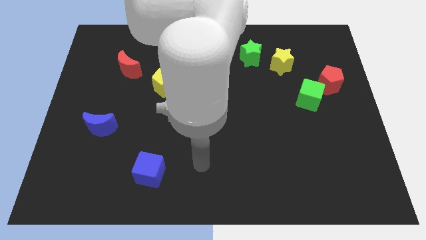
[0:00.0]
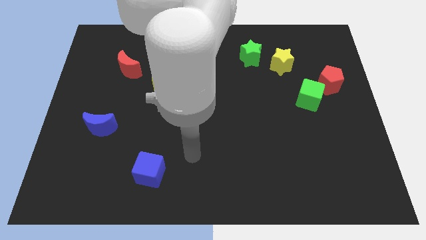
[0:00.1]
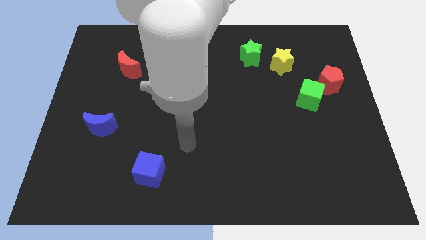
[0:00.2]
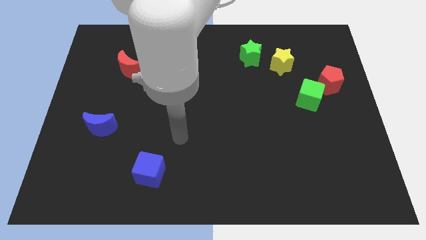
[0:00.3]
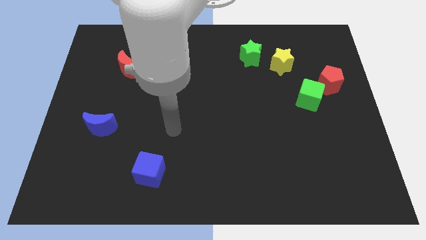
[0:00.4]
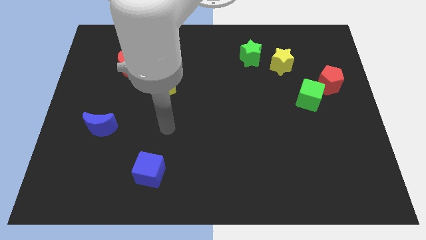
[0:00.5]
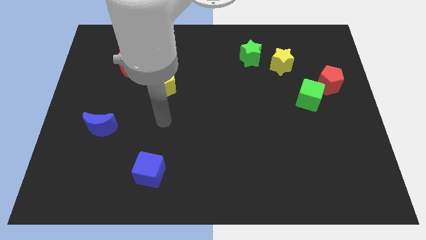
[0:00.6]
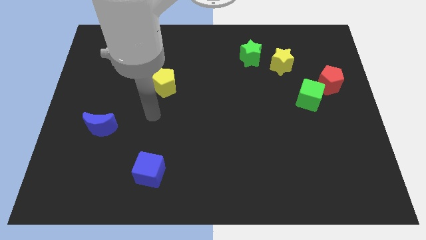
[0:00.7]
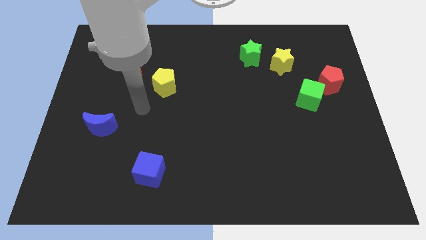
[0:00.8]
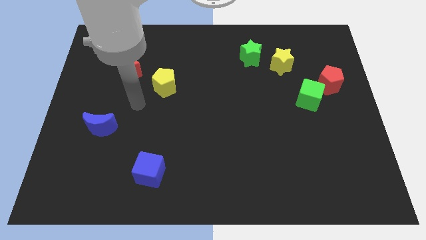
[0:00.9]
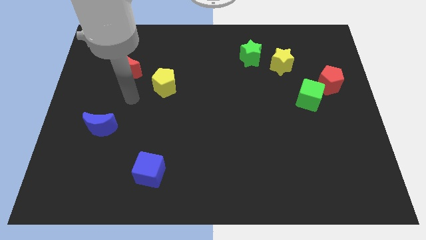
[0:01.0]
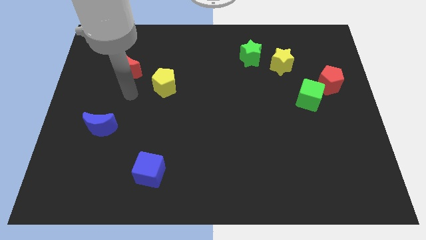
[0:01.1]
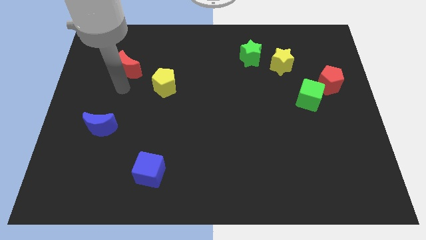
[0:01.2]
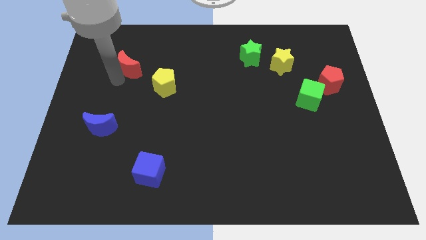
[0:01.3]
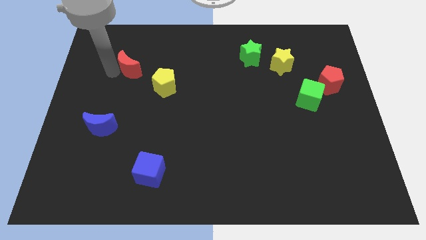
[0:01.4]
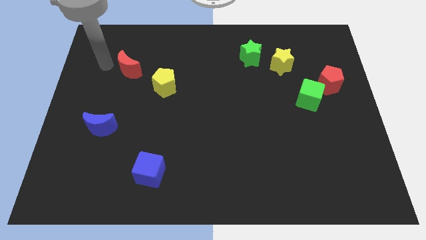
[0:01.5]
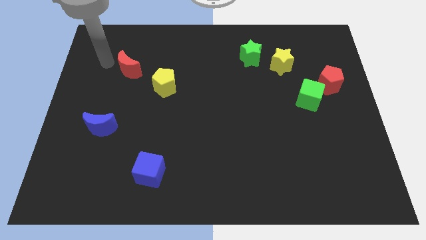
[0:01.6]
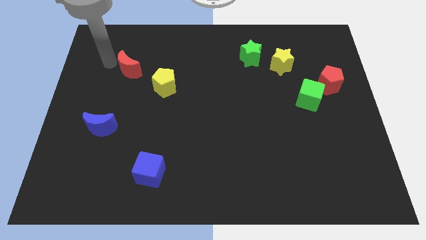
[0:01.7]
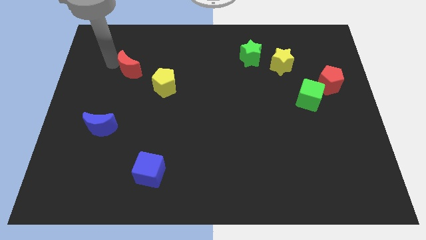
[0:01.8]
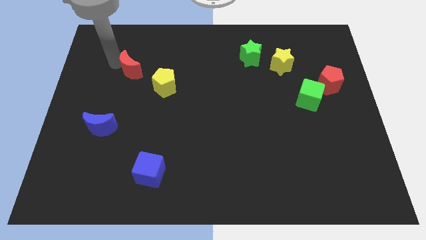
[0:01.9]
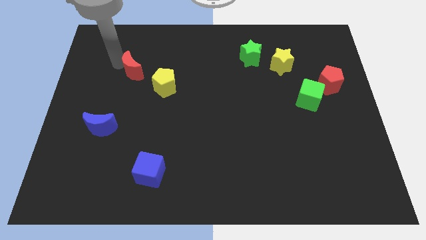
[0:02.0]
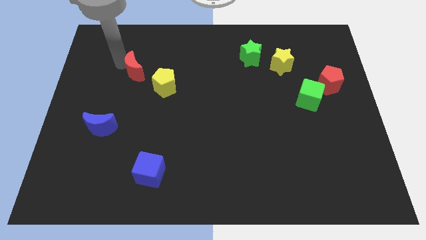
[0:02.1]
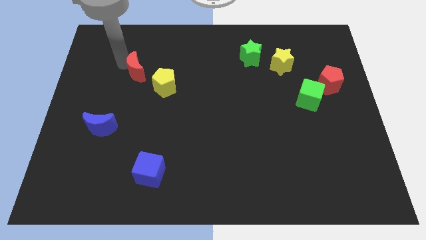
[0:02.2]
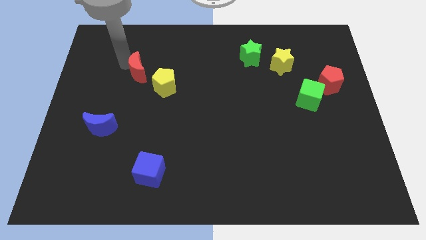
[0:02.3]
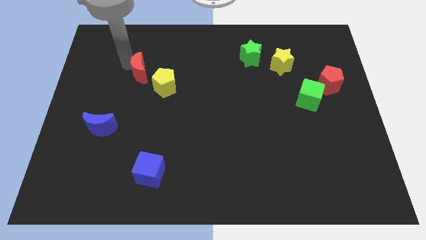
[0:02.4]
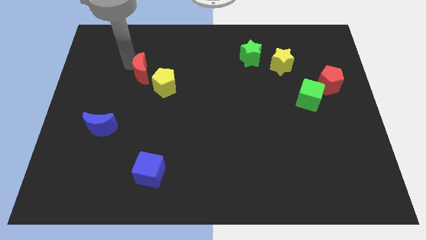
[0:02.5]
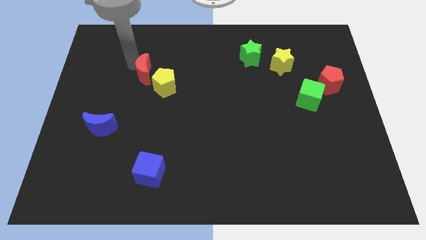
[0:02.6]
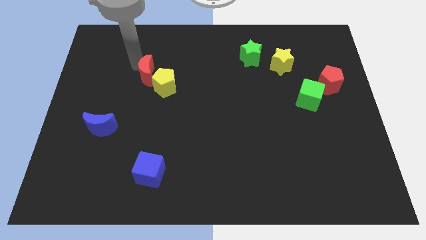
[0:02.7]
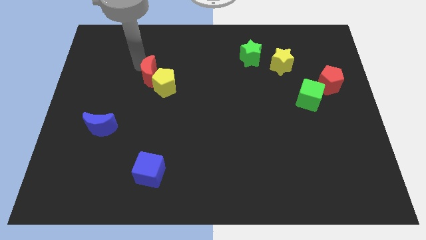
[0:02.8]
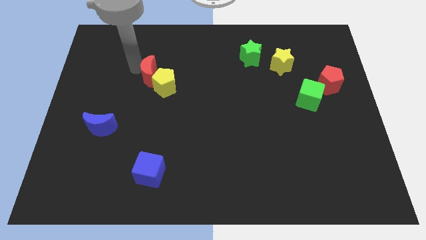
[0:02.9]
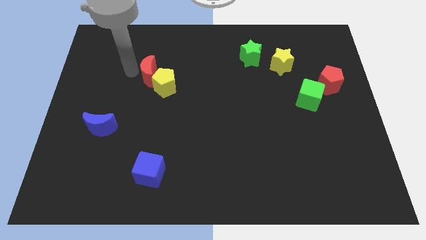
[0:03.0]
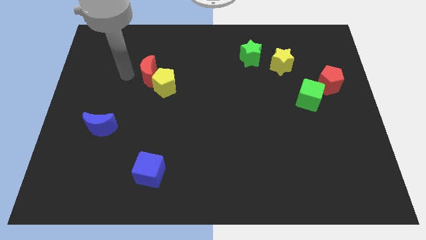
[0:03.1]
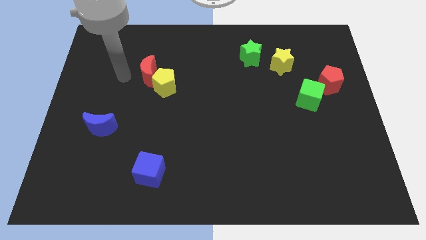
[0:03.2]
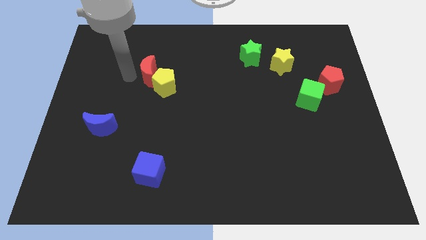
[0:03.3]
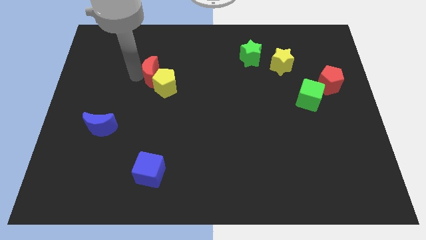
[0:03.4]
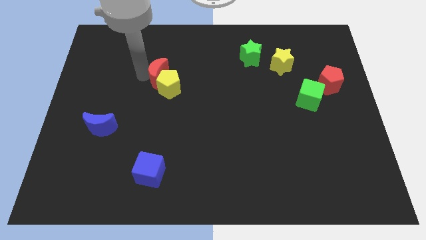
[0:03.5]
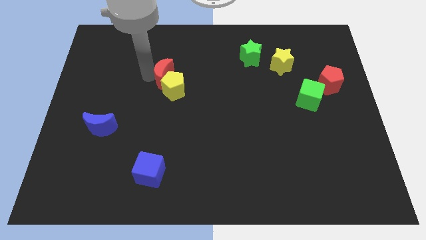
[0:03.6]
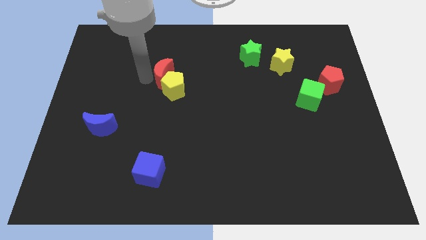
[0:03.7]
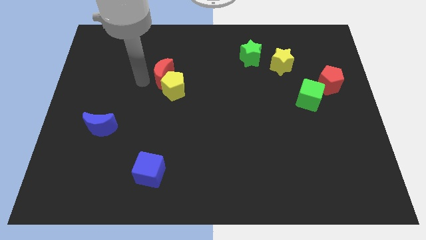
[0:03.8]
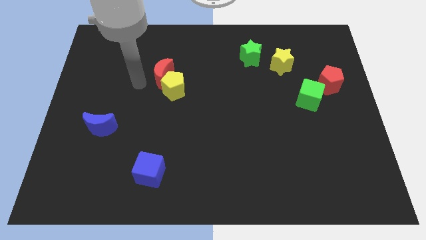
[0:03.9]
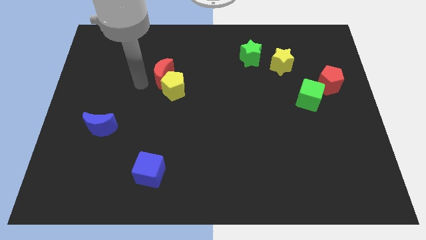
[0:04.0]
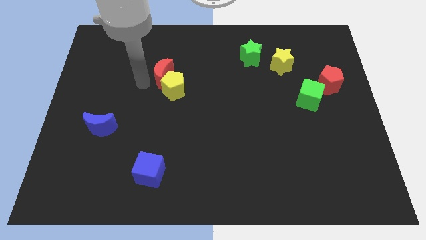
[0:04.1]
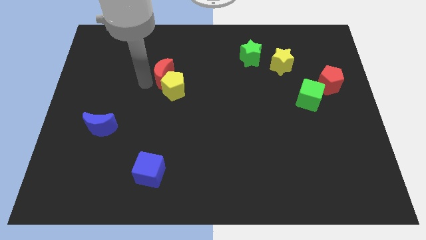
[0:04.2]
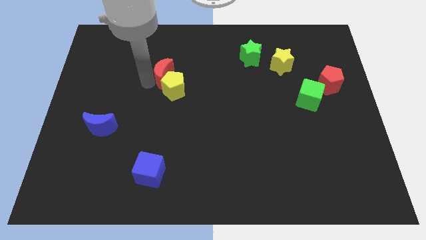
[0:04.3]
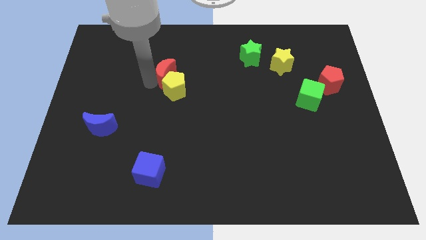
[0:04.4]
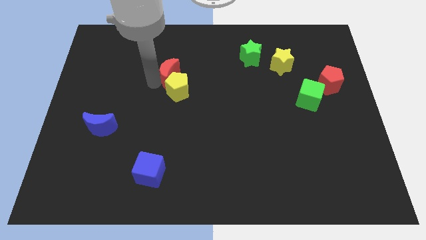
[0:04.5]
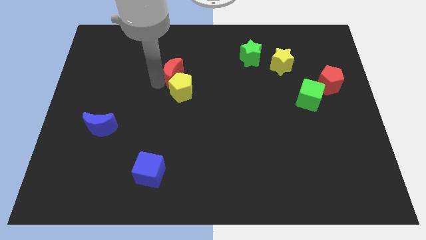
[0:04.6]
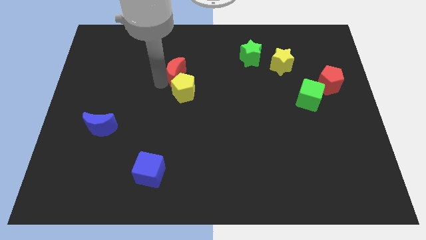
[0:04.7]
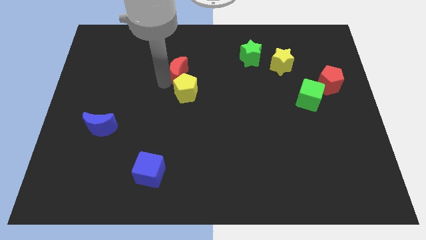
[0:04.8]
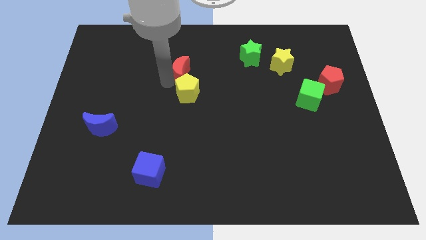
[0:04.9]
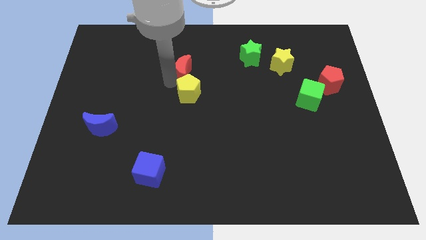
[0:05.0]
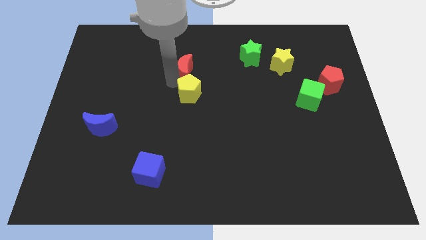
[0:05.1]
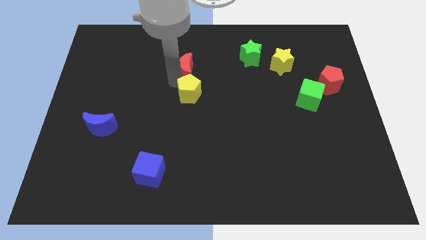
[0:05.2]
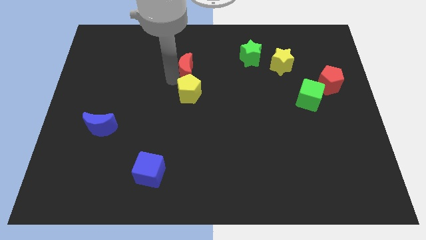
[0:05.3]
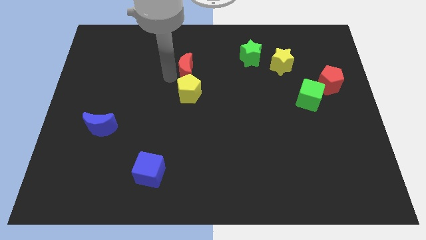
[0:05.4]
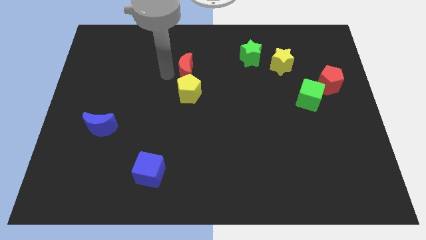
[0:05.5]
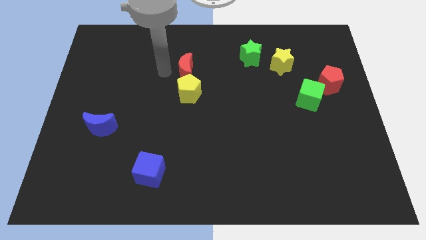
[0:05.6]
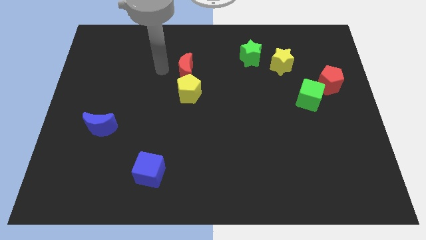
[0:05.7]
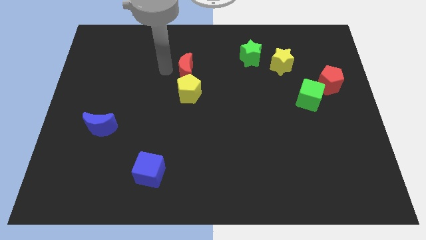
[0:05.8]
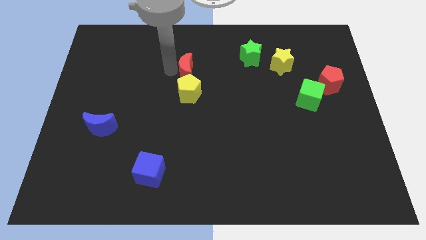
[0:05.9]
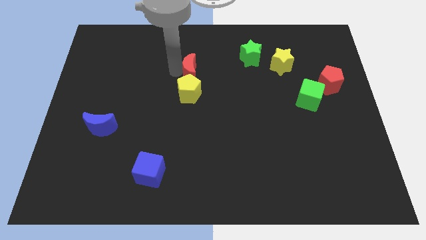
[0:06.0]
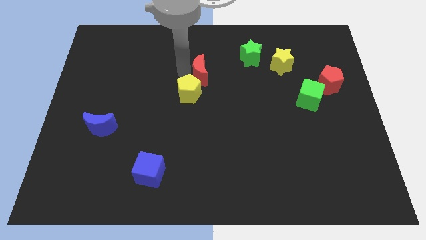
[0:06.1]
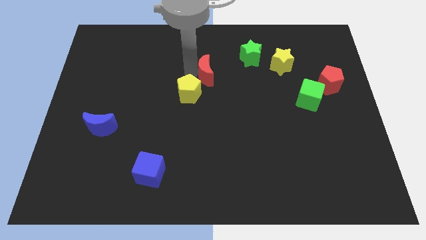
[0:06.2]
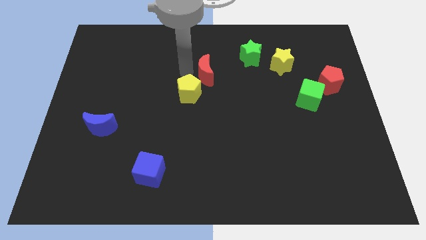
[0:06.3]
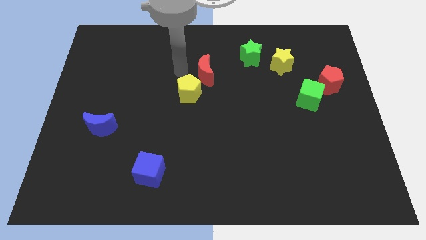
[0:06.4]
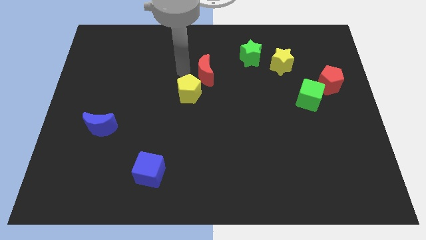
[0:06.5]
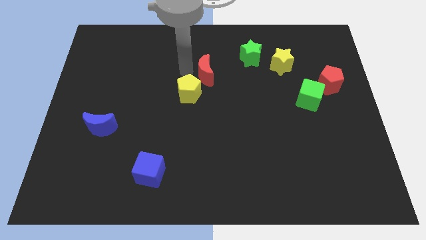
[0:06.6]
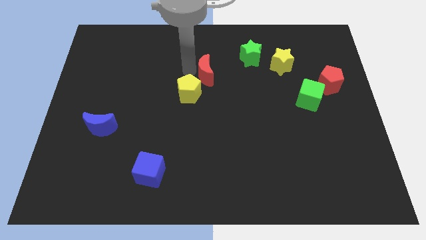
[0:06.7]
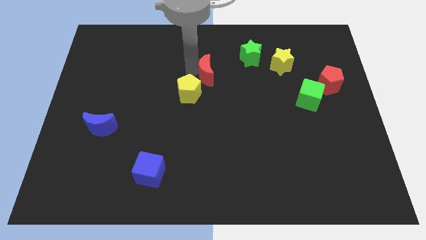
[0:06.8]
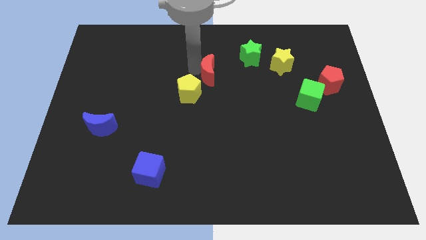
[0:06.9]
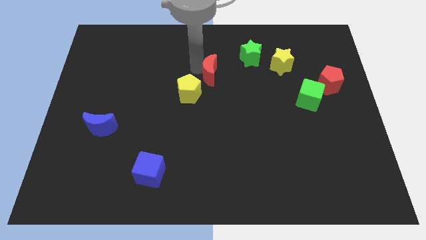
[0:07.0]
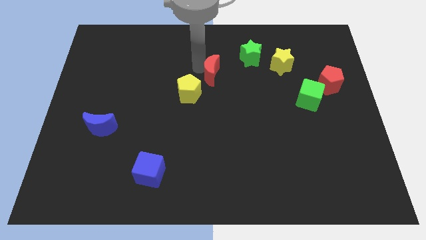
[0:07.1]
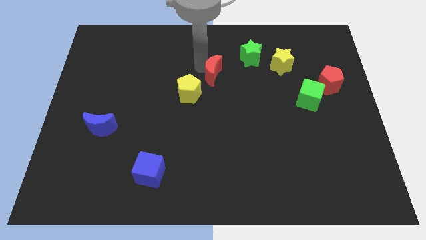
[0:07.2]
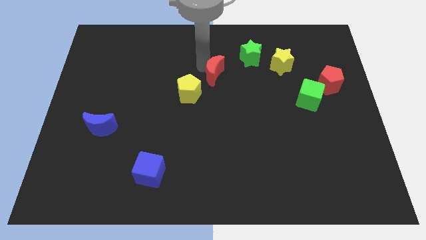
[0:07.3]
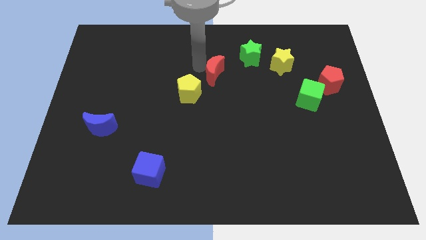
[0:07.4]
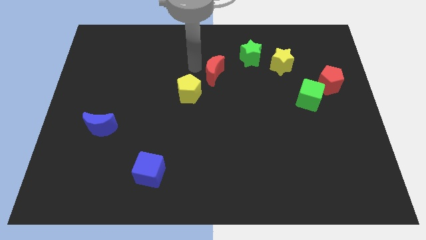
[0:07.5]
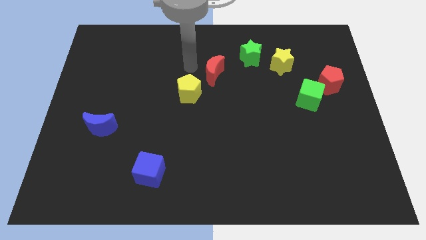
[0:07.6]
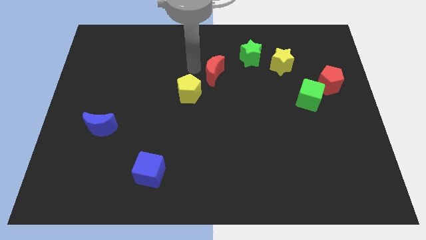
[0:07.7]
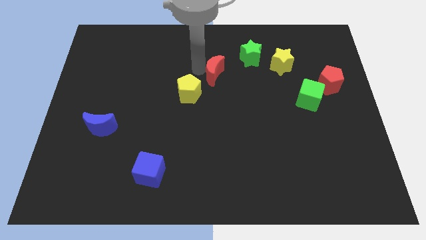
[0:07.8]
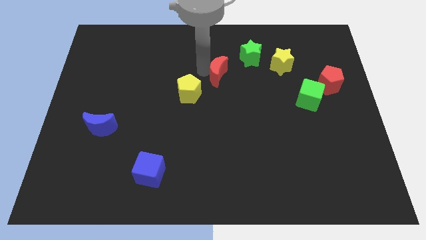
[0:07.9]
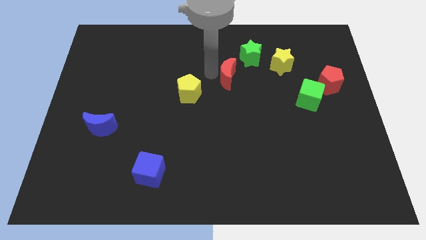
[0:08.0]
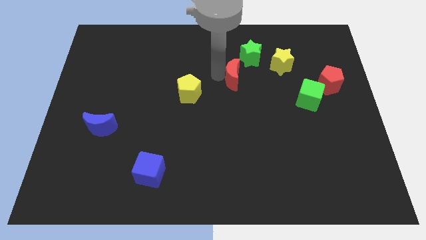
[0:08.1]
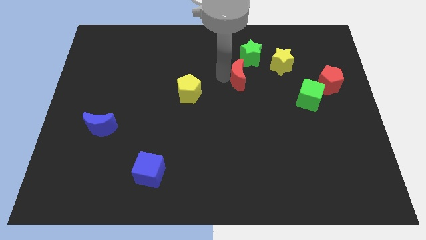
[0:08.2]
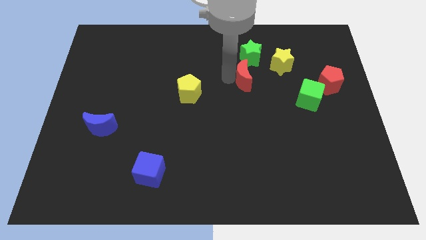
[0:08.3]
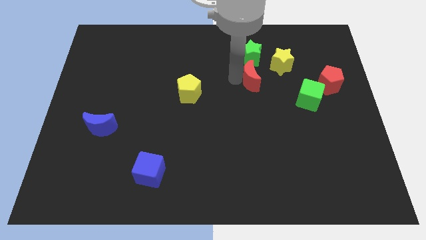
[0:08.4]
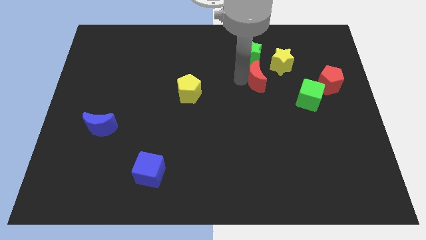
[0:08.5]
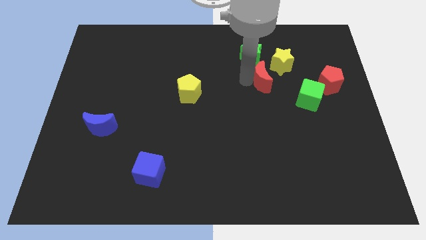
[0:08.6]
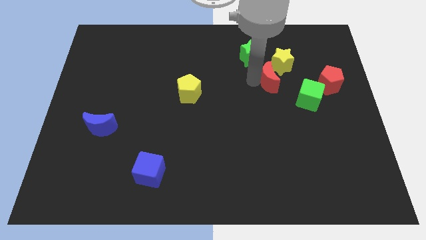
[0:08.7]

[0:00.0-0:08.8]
slide the red moon to the top left of the green cube
